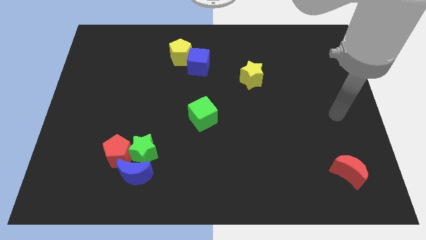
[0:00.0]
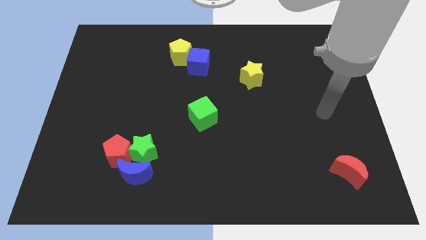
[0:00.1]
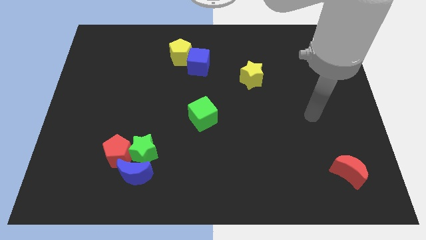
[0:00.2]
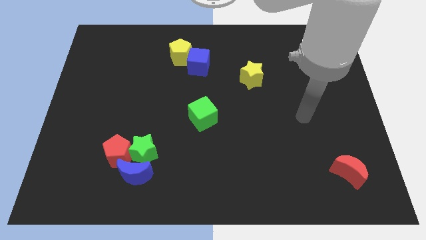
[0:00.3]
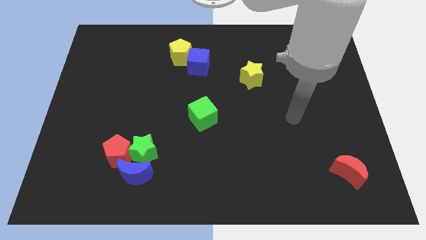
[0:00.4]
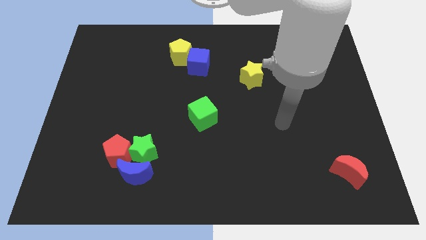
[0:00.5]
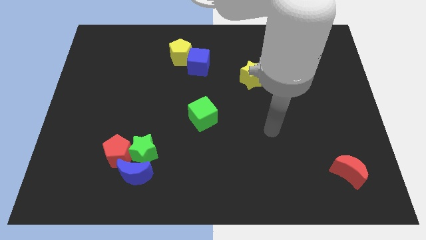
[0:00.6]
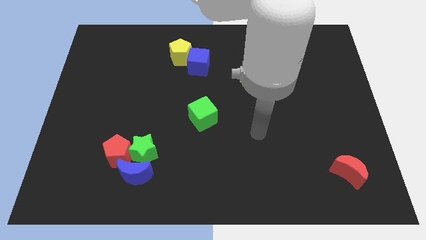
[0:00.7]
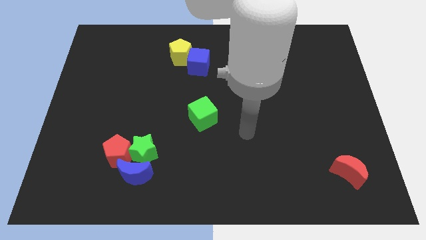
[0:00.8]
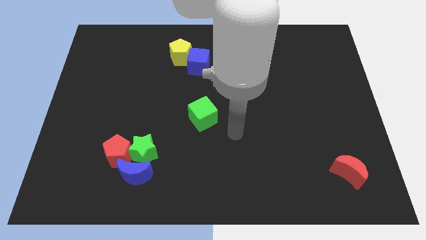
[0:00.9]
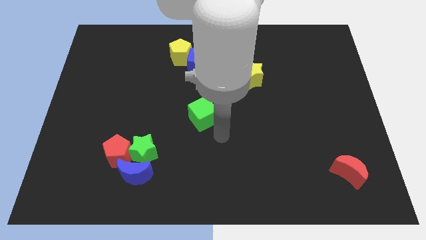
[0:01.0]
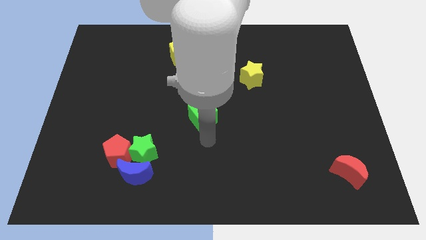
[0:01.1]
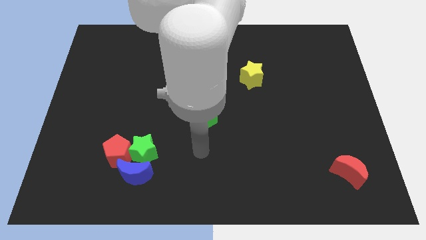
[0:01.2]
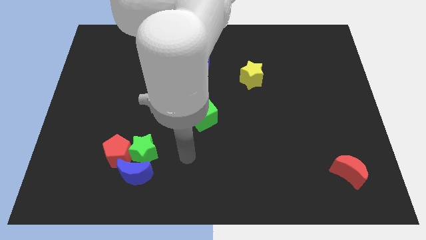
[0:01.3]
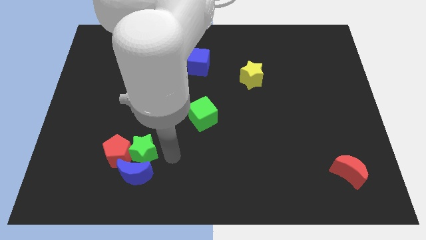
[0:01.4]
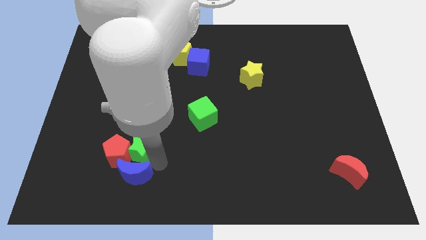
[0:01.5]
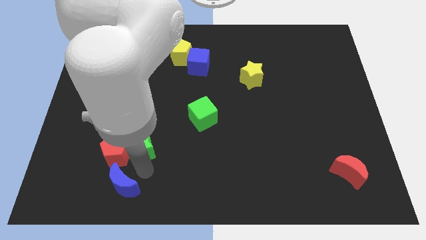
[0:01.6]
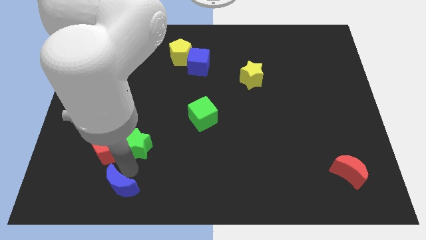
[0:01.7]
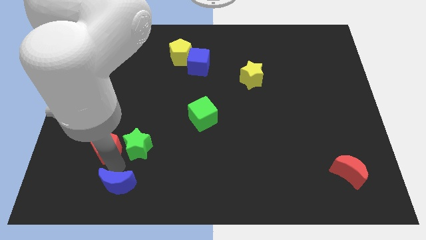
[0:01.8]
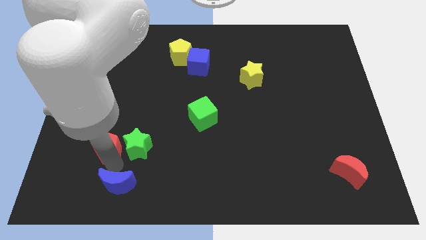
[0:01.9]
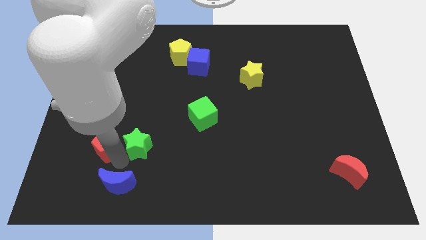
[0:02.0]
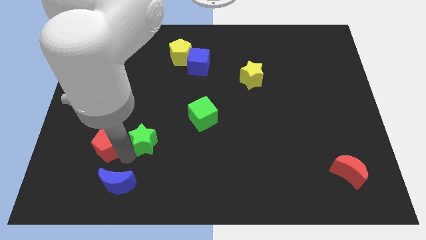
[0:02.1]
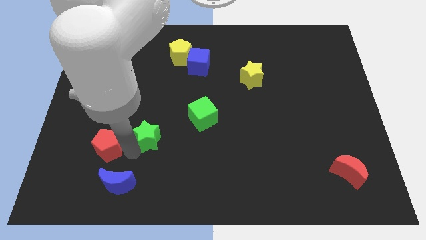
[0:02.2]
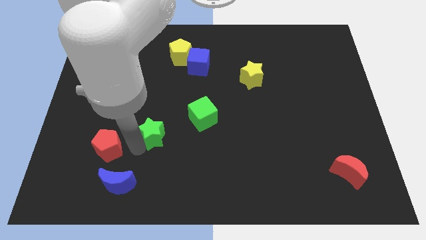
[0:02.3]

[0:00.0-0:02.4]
move the green star away from the blue moon and red pentagon

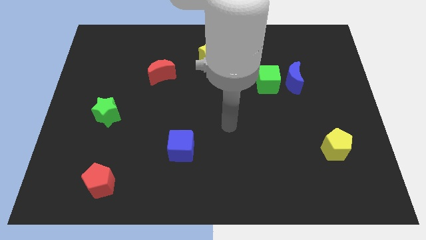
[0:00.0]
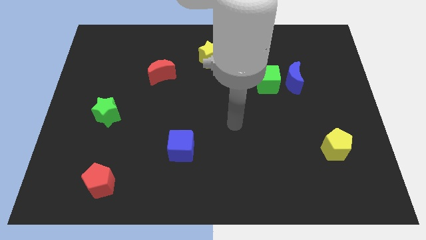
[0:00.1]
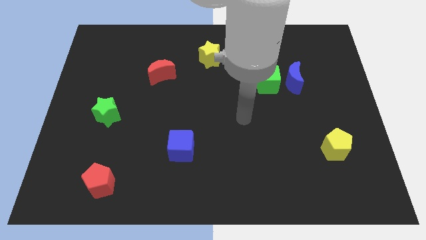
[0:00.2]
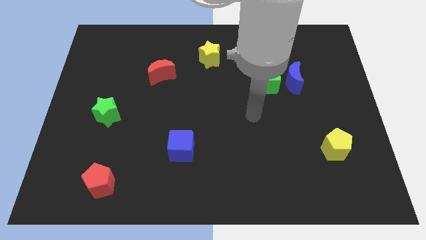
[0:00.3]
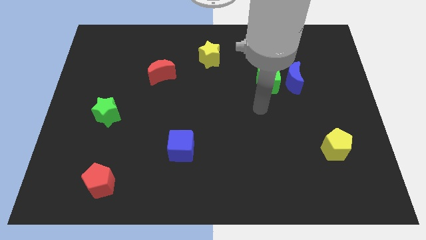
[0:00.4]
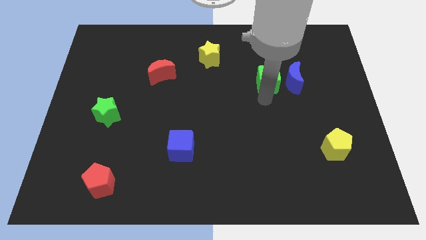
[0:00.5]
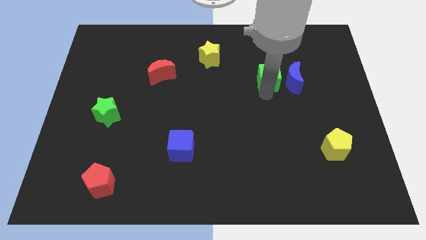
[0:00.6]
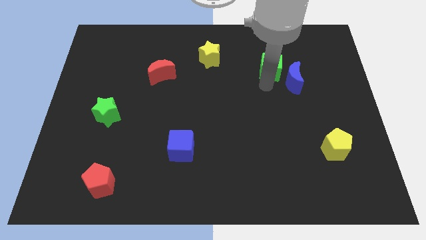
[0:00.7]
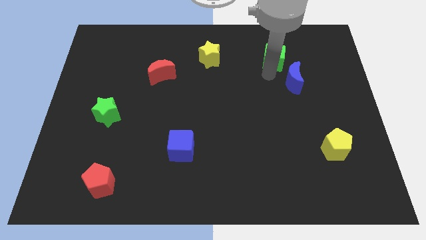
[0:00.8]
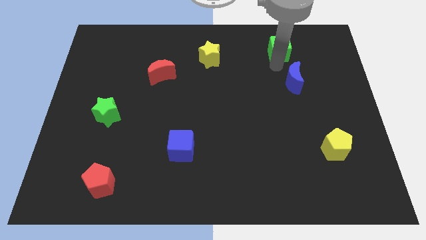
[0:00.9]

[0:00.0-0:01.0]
move the blue moon away from the green cube

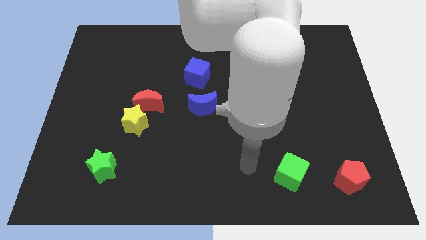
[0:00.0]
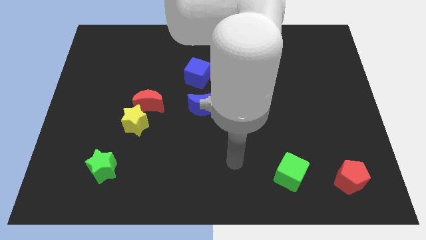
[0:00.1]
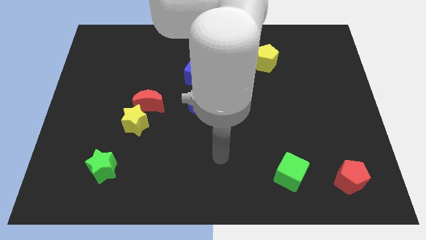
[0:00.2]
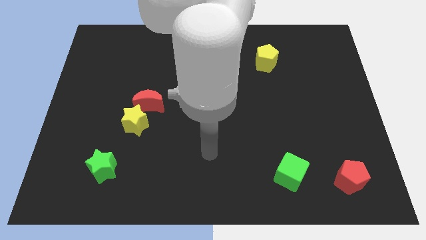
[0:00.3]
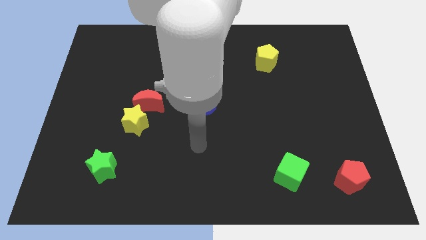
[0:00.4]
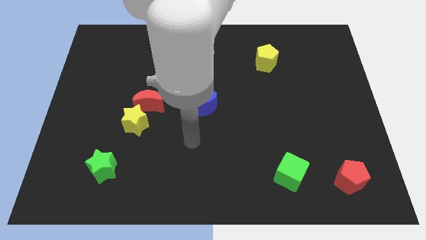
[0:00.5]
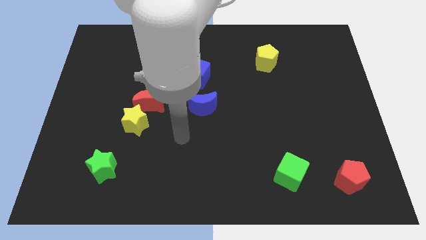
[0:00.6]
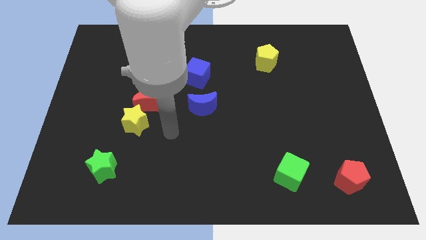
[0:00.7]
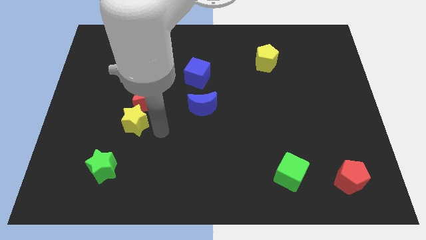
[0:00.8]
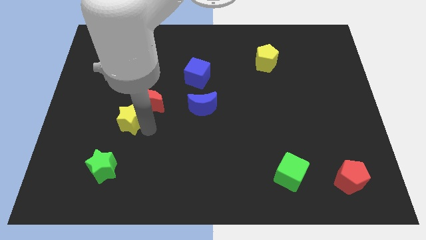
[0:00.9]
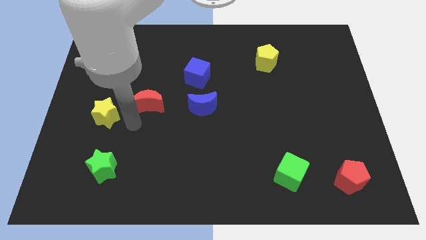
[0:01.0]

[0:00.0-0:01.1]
move the red moon away from the yellow star

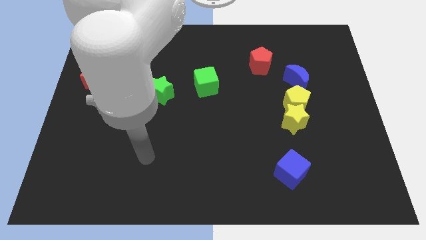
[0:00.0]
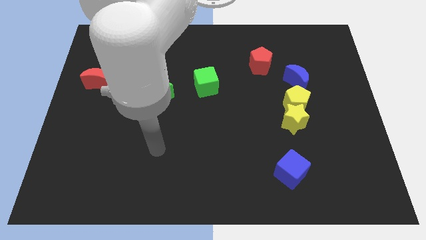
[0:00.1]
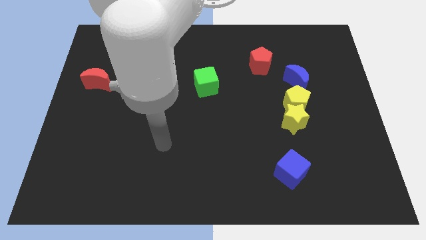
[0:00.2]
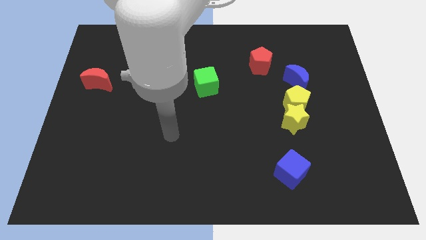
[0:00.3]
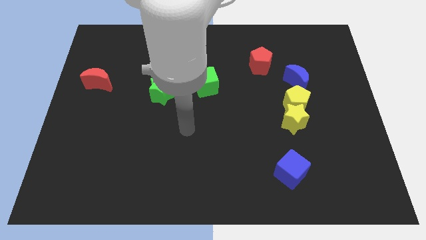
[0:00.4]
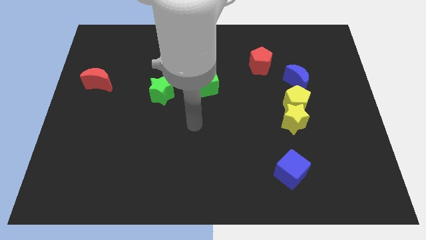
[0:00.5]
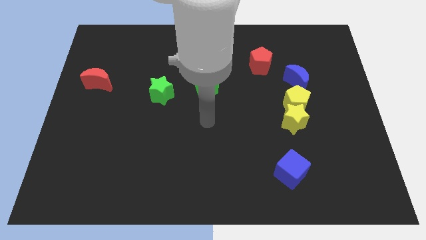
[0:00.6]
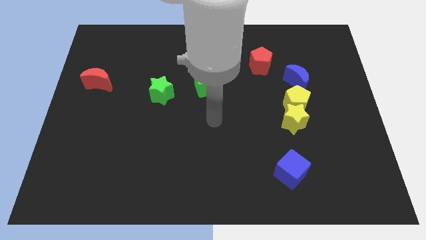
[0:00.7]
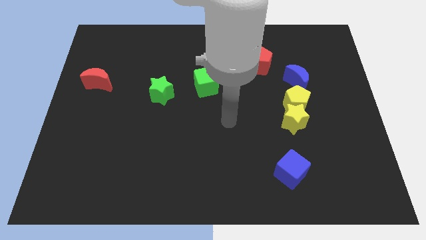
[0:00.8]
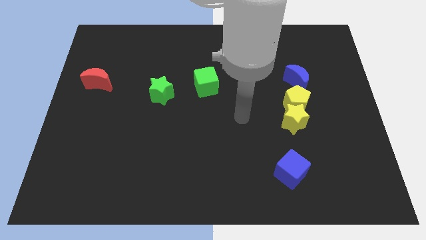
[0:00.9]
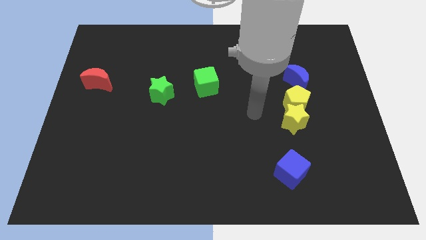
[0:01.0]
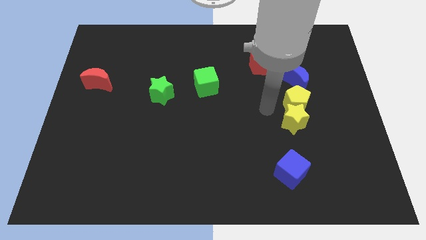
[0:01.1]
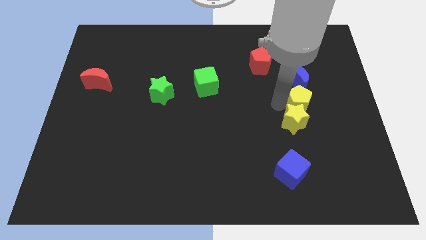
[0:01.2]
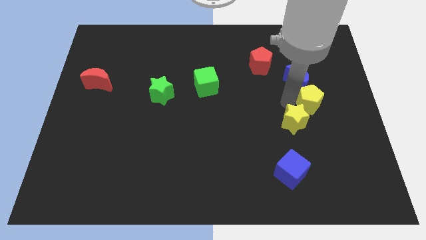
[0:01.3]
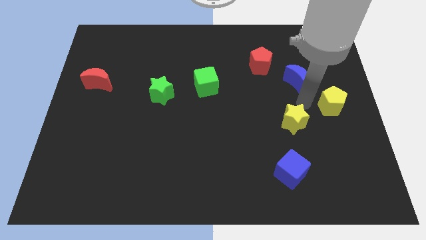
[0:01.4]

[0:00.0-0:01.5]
separate the yellow star from the yellow pentagon

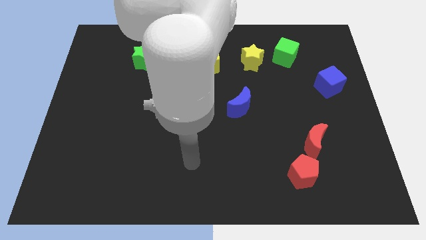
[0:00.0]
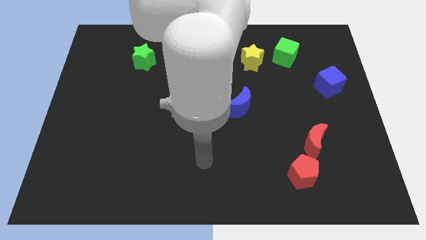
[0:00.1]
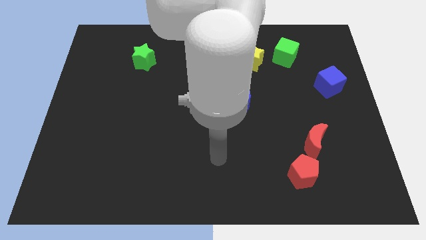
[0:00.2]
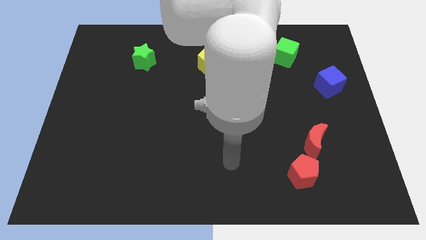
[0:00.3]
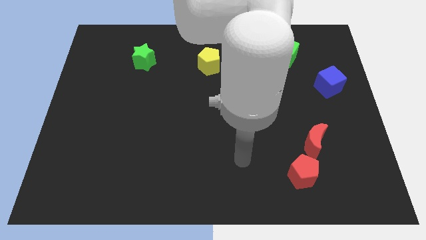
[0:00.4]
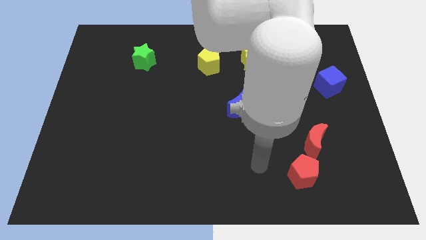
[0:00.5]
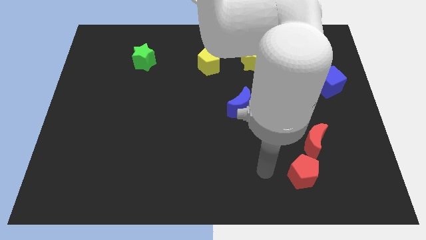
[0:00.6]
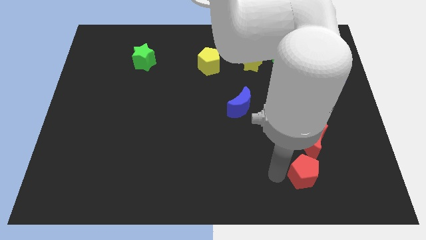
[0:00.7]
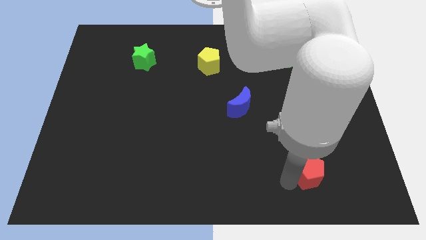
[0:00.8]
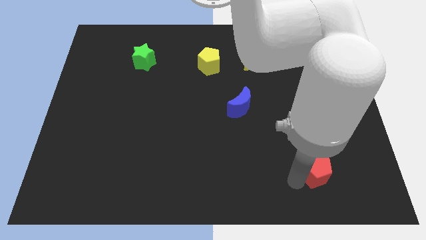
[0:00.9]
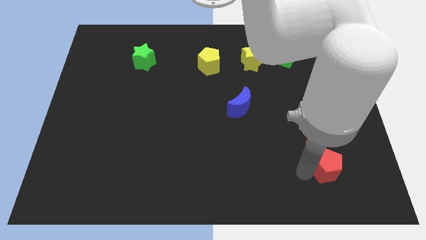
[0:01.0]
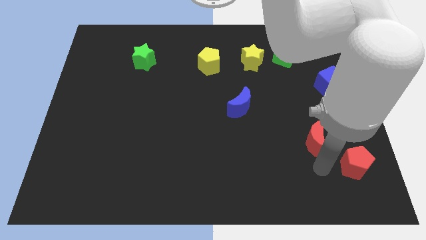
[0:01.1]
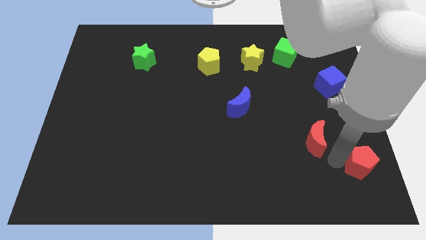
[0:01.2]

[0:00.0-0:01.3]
pull the red moon apart from the red pentagon

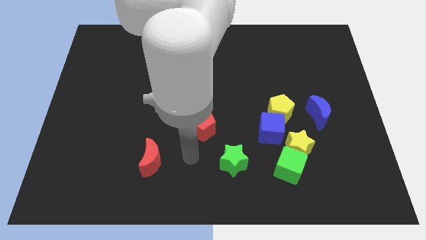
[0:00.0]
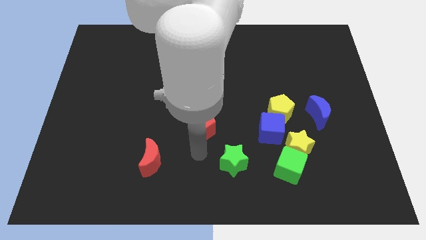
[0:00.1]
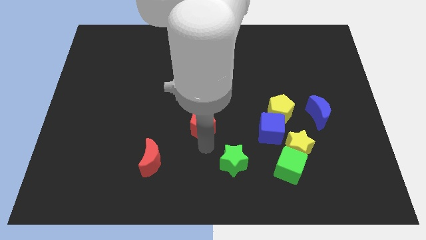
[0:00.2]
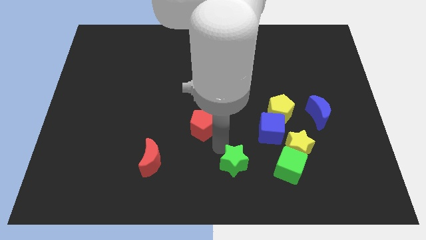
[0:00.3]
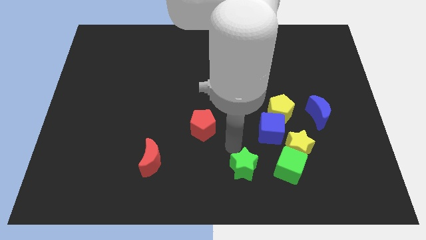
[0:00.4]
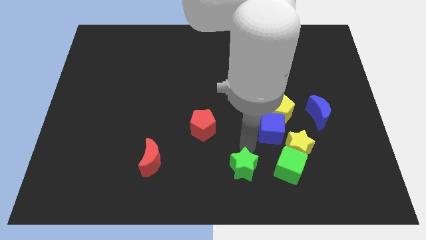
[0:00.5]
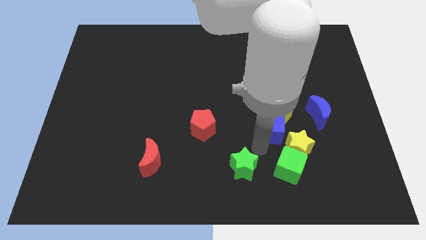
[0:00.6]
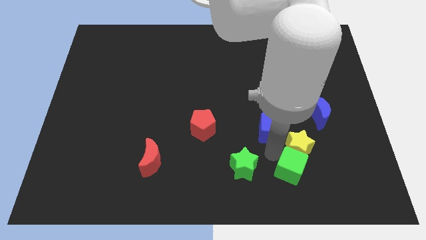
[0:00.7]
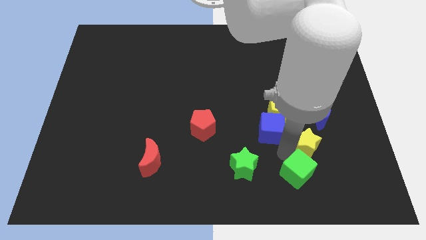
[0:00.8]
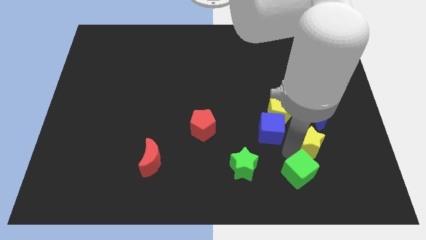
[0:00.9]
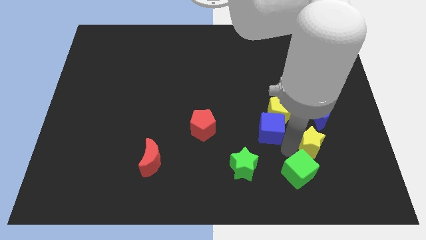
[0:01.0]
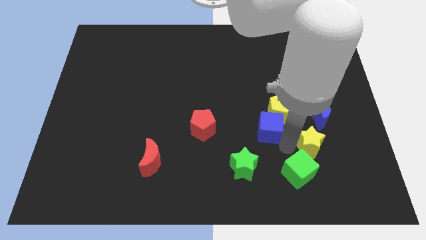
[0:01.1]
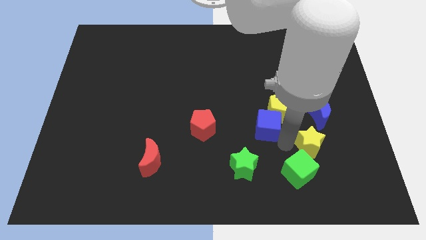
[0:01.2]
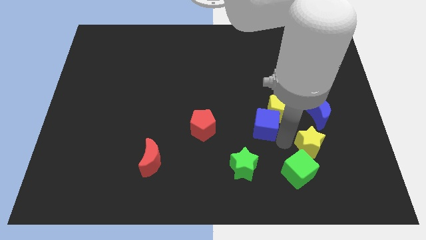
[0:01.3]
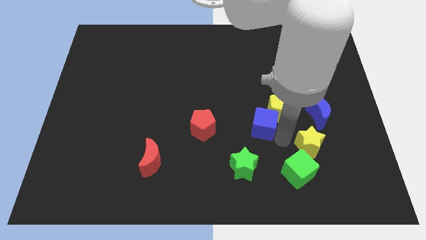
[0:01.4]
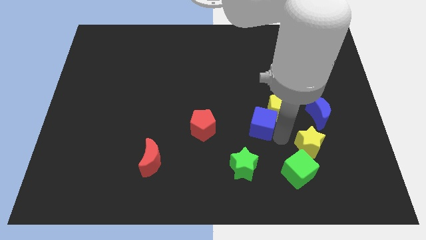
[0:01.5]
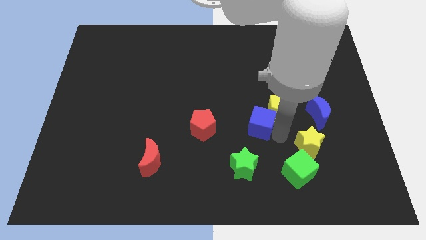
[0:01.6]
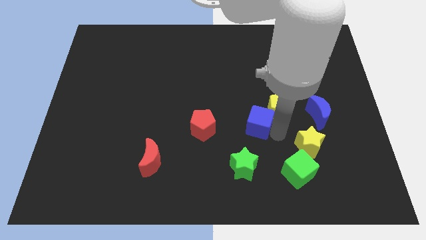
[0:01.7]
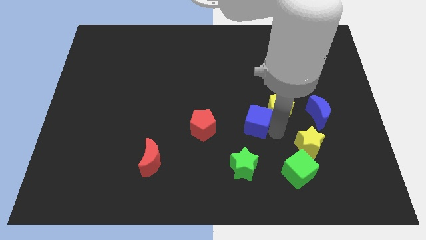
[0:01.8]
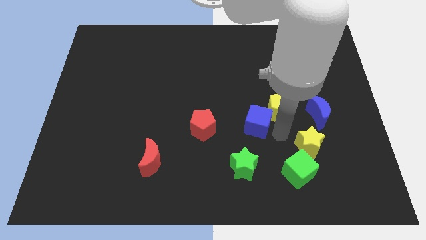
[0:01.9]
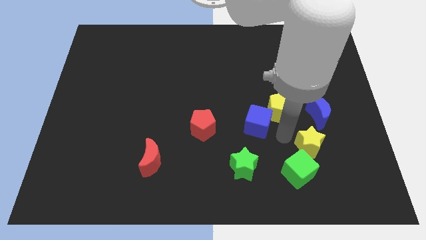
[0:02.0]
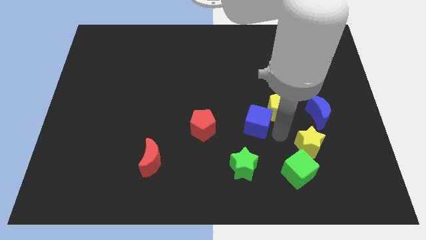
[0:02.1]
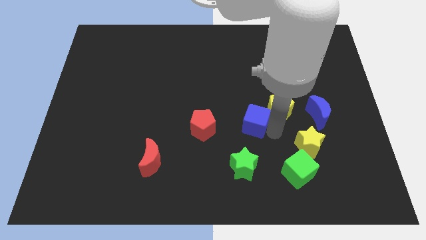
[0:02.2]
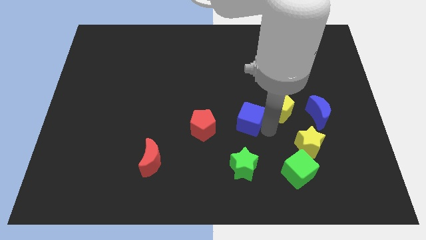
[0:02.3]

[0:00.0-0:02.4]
separate the blue cube from the yellow pentagon, yellow star, and green cube
